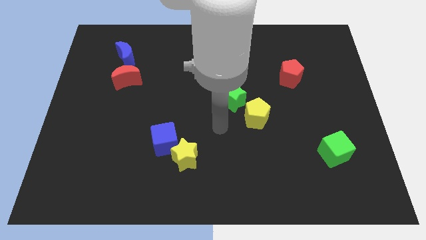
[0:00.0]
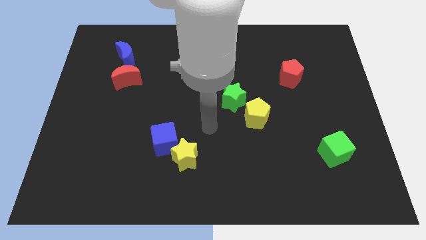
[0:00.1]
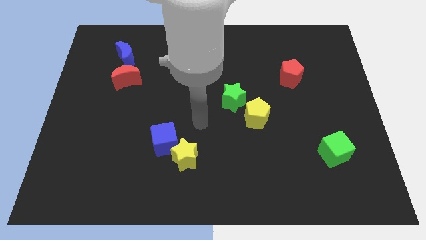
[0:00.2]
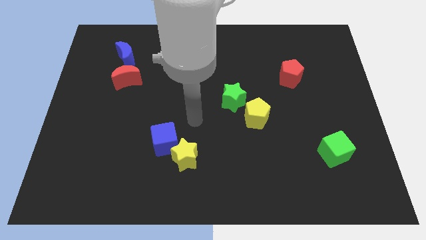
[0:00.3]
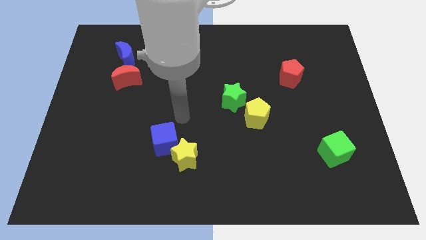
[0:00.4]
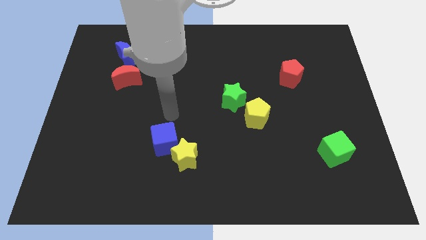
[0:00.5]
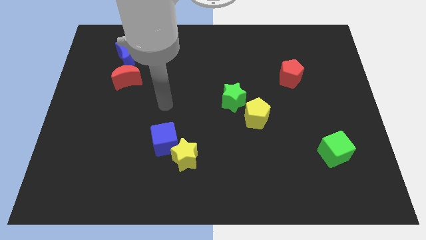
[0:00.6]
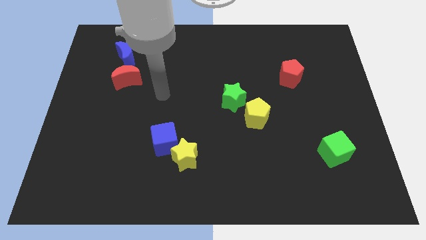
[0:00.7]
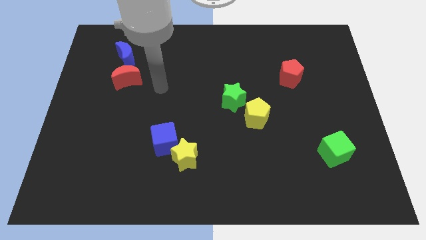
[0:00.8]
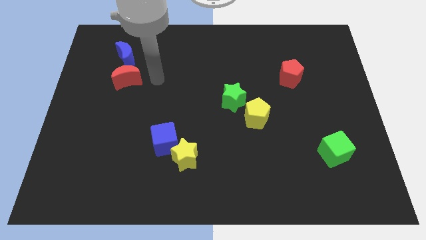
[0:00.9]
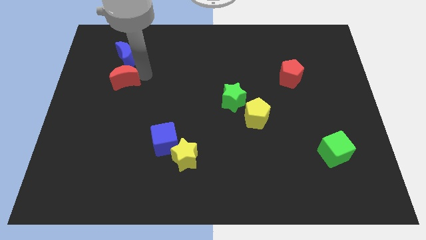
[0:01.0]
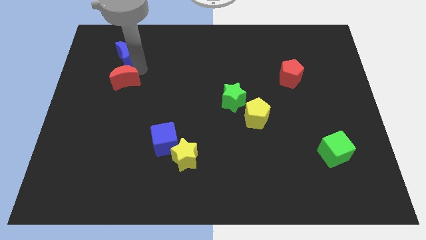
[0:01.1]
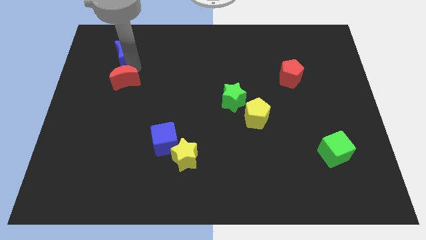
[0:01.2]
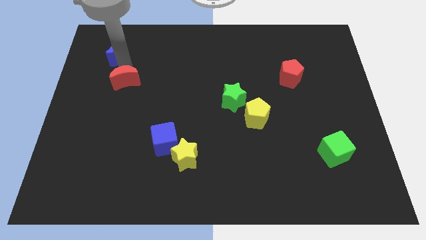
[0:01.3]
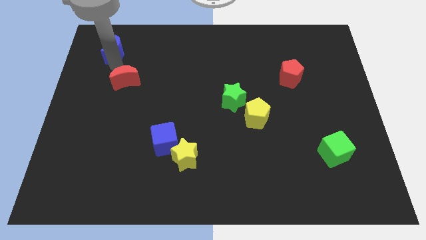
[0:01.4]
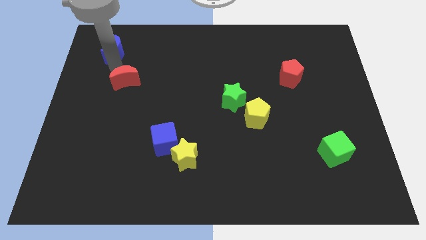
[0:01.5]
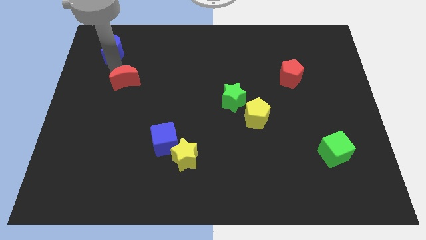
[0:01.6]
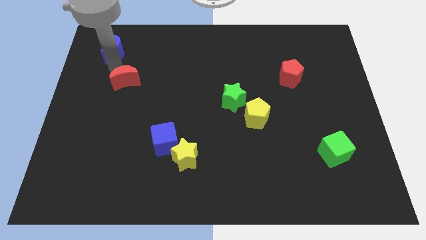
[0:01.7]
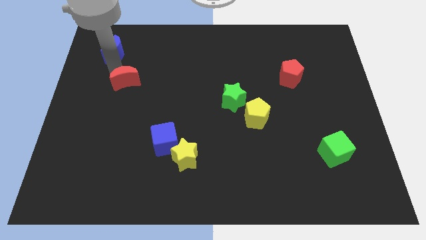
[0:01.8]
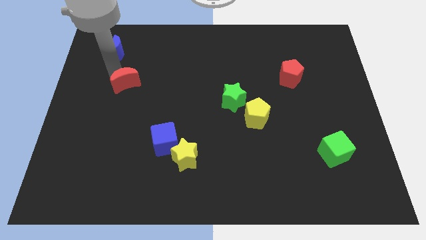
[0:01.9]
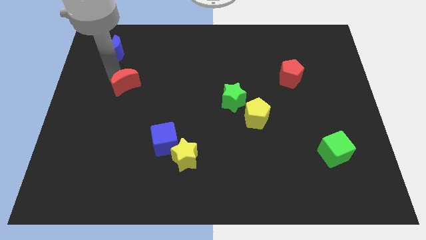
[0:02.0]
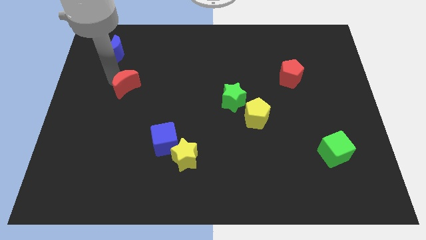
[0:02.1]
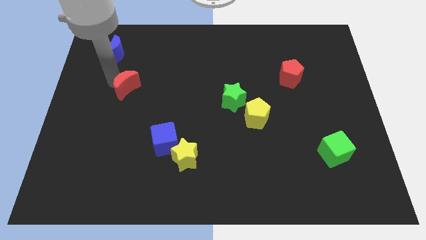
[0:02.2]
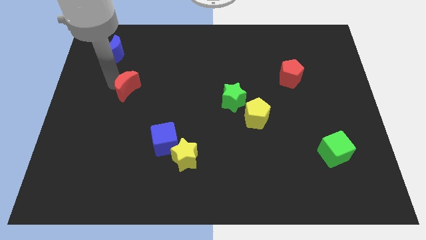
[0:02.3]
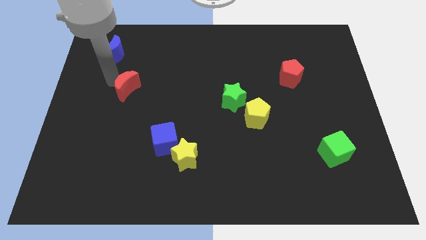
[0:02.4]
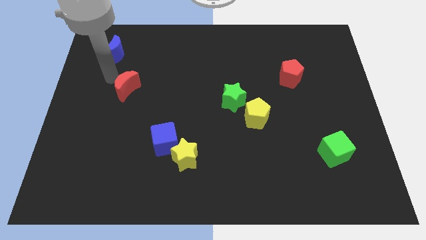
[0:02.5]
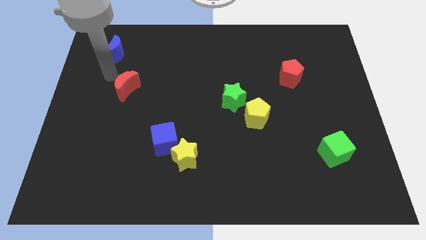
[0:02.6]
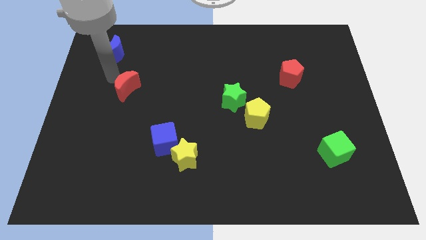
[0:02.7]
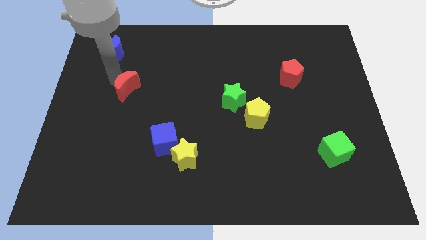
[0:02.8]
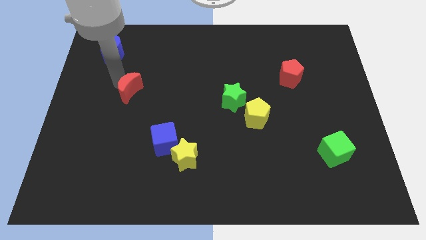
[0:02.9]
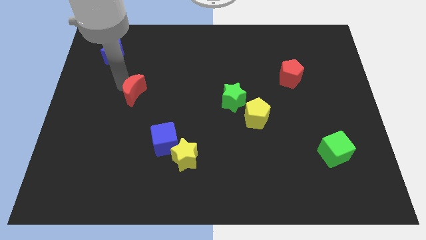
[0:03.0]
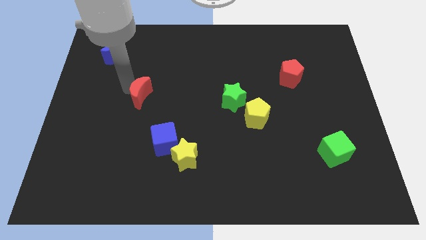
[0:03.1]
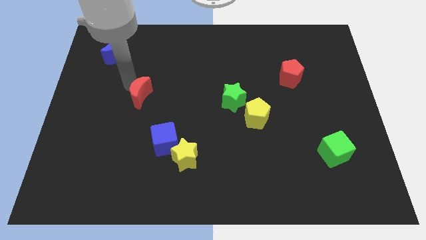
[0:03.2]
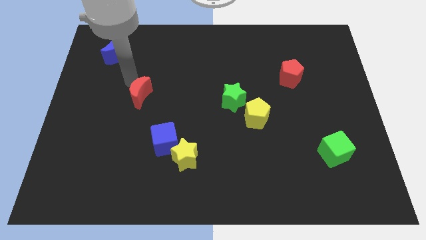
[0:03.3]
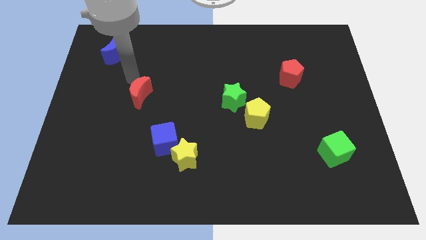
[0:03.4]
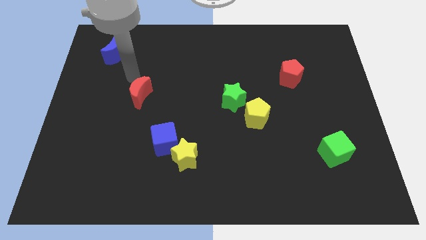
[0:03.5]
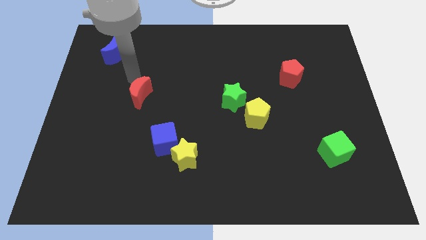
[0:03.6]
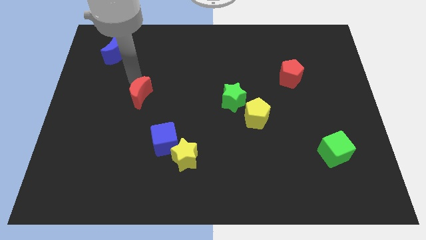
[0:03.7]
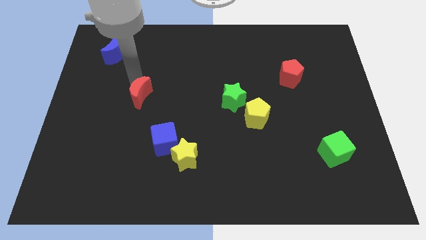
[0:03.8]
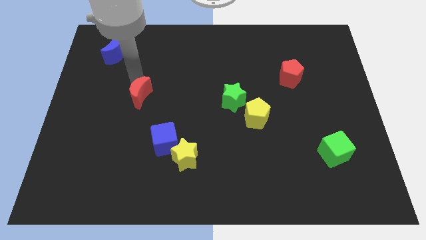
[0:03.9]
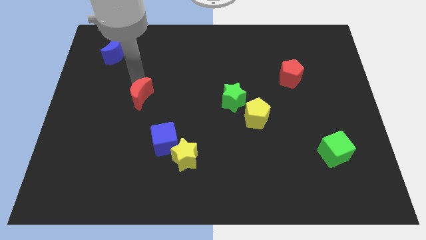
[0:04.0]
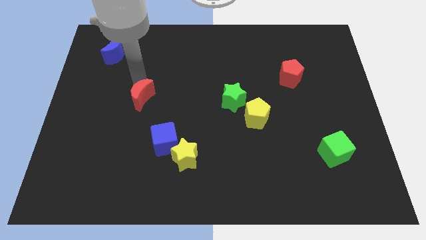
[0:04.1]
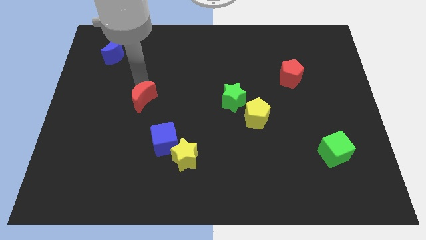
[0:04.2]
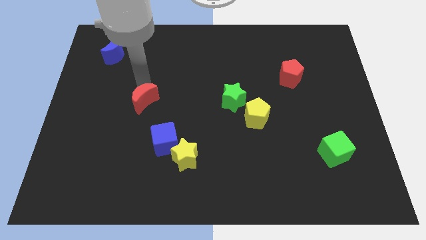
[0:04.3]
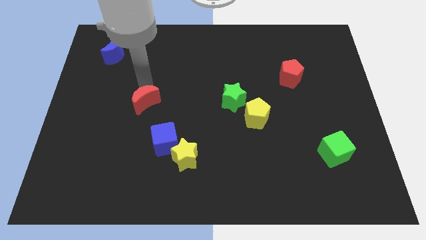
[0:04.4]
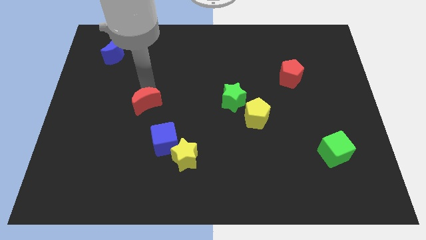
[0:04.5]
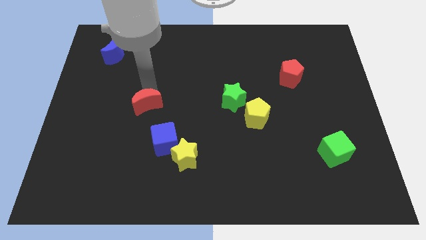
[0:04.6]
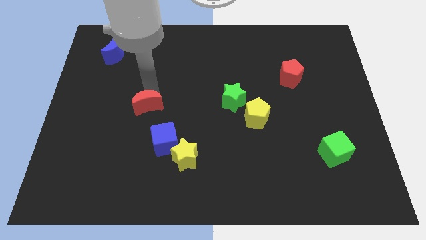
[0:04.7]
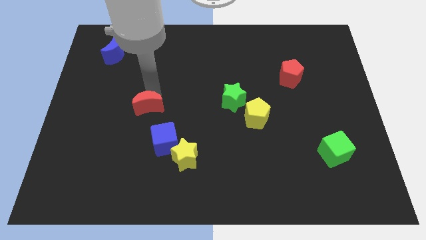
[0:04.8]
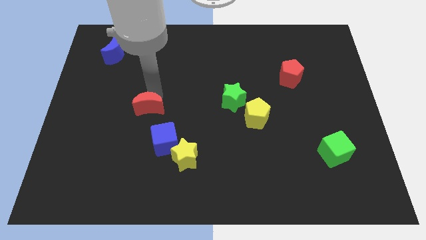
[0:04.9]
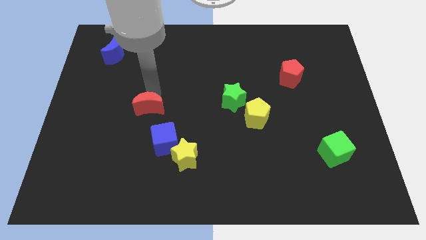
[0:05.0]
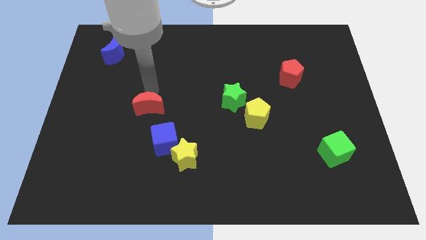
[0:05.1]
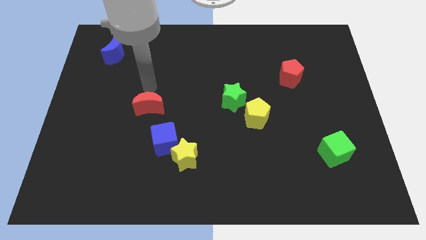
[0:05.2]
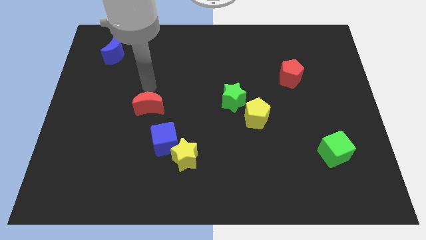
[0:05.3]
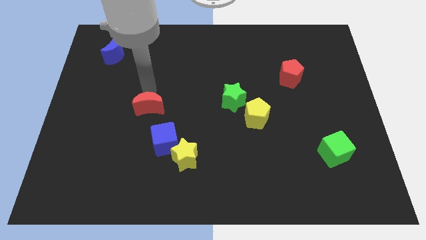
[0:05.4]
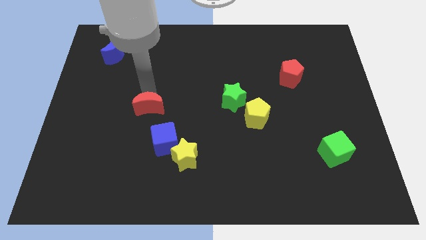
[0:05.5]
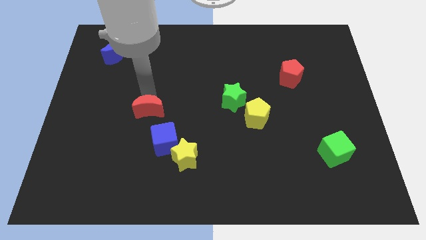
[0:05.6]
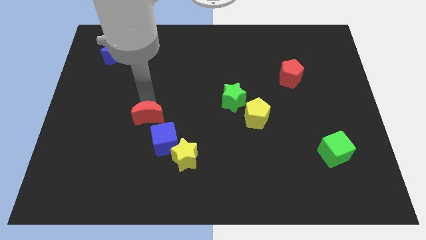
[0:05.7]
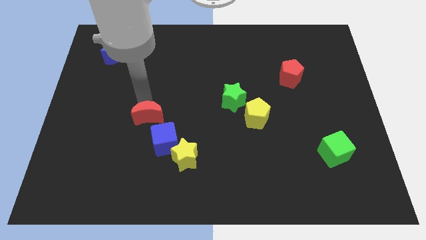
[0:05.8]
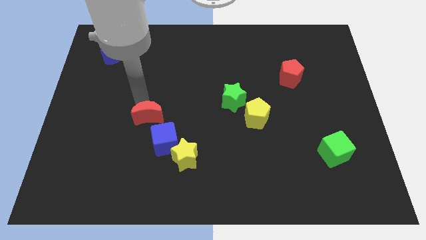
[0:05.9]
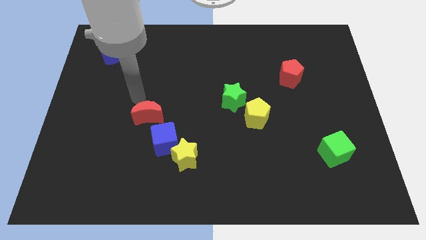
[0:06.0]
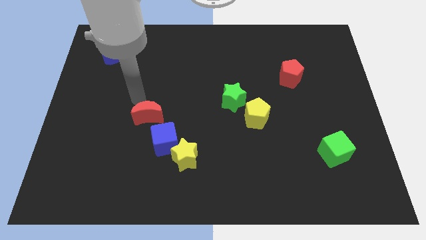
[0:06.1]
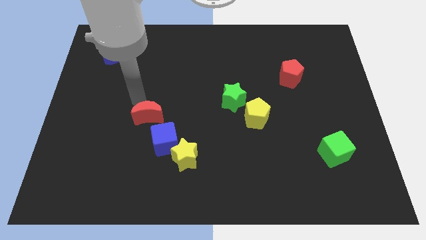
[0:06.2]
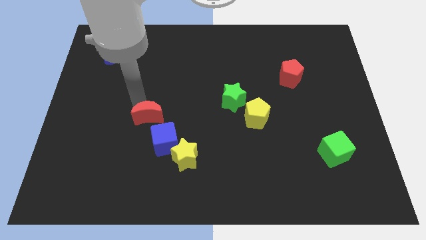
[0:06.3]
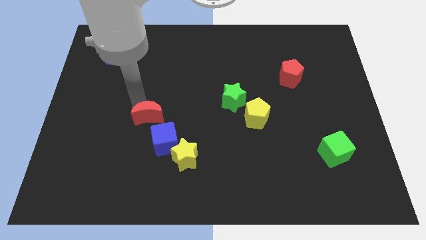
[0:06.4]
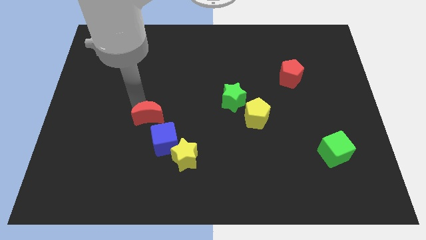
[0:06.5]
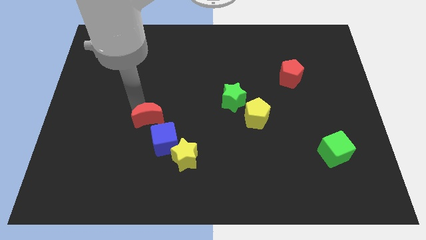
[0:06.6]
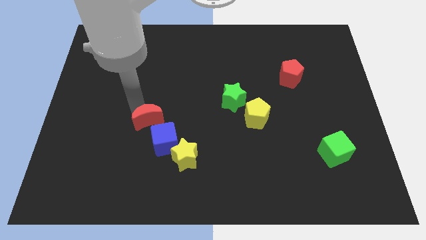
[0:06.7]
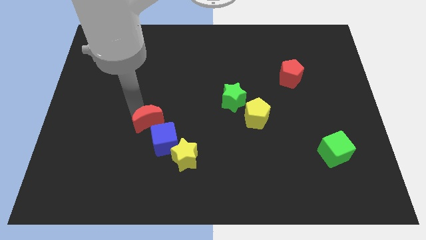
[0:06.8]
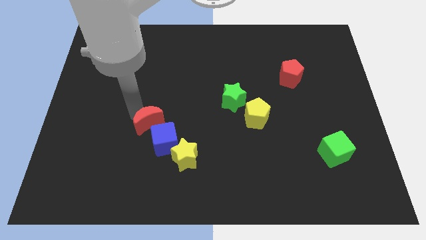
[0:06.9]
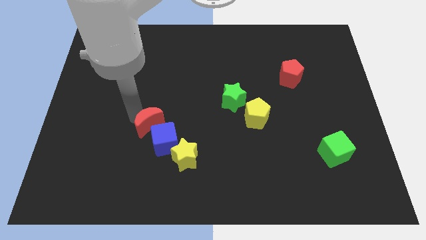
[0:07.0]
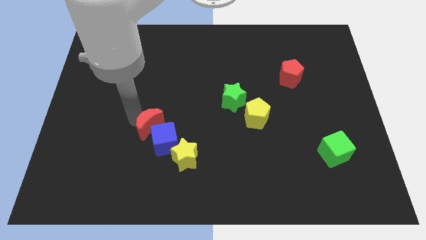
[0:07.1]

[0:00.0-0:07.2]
slide the red moon towards the blue cube
